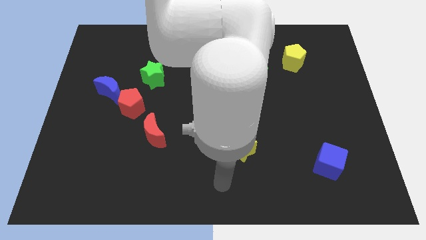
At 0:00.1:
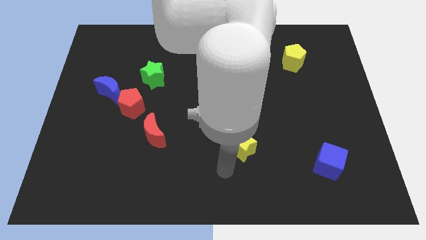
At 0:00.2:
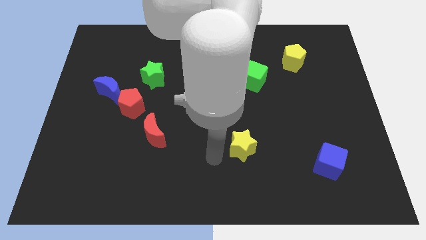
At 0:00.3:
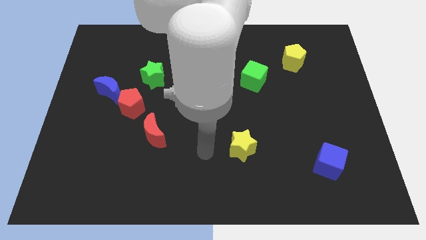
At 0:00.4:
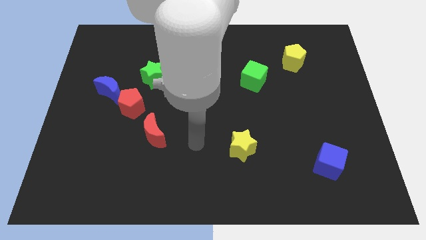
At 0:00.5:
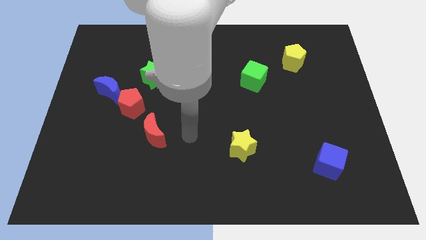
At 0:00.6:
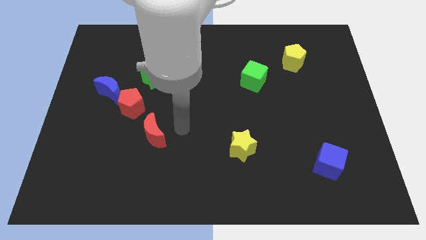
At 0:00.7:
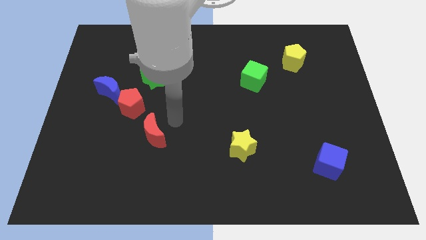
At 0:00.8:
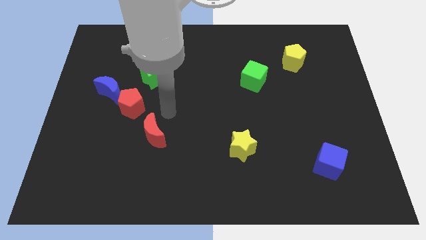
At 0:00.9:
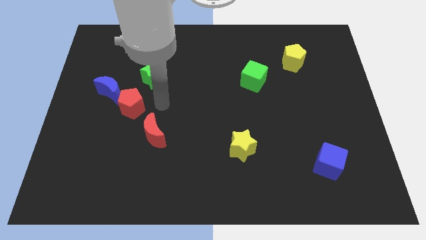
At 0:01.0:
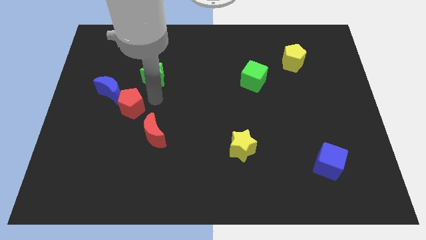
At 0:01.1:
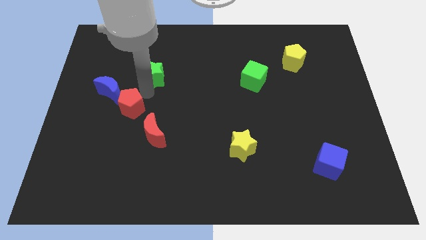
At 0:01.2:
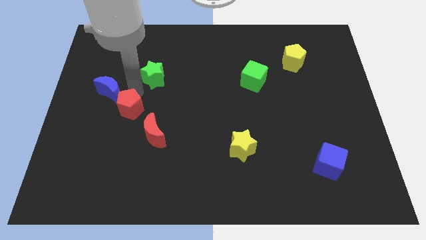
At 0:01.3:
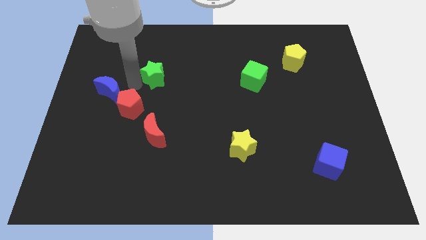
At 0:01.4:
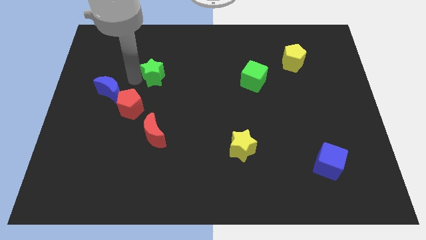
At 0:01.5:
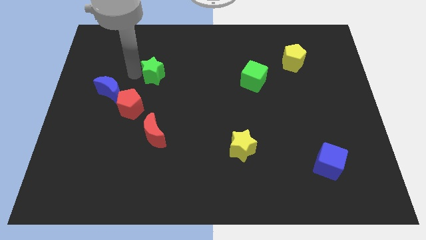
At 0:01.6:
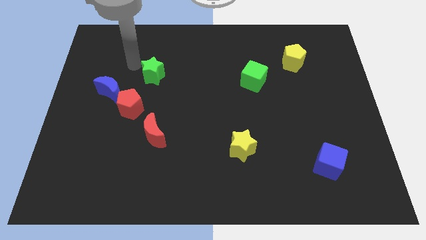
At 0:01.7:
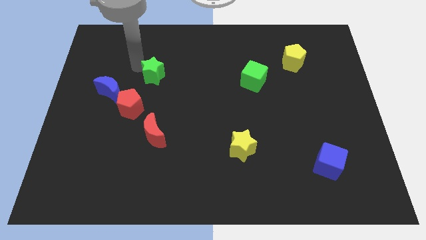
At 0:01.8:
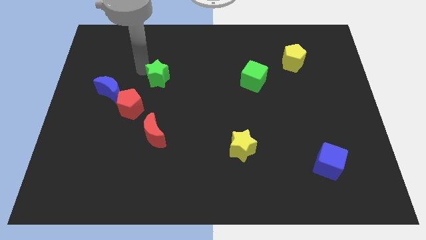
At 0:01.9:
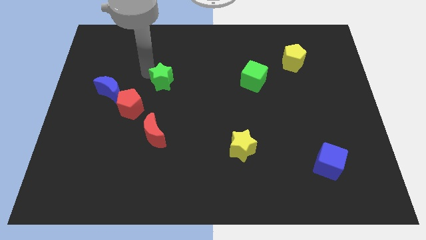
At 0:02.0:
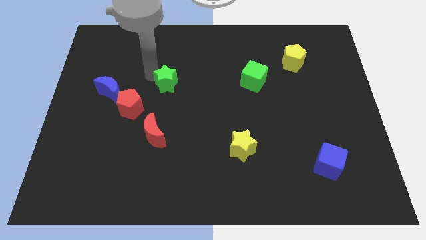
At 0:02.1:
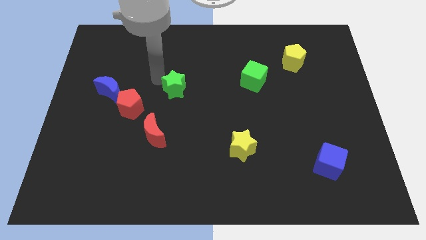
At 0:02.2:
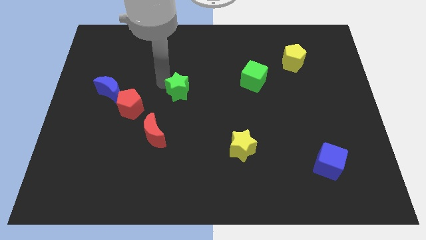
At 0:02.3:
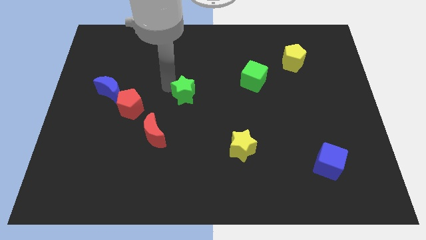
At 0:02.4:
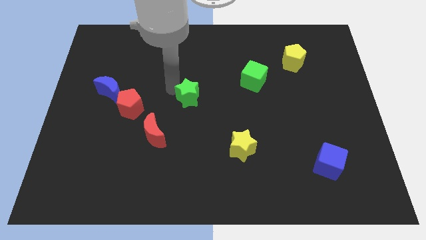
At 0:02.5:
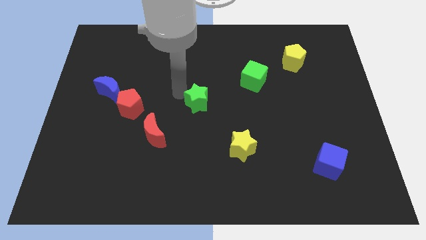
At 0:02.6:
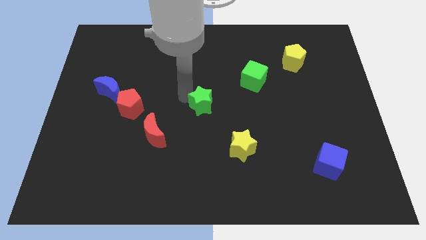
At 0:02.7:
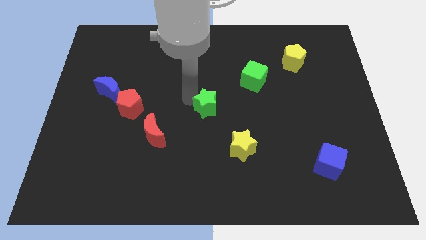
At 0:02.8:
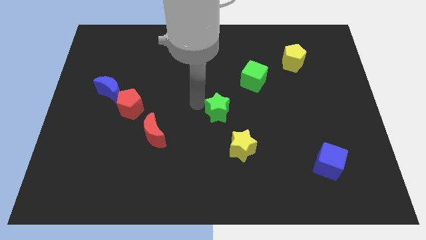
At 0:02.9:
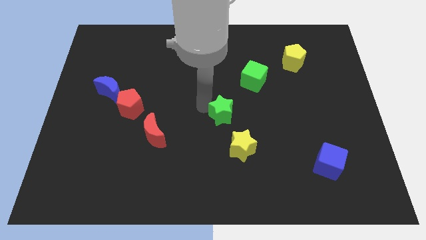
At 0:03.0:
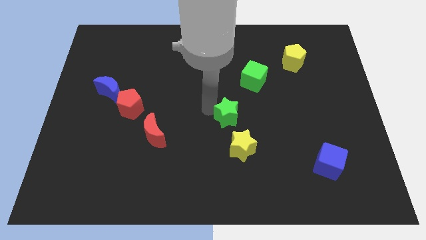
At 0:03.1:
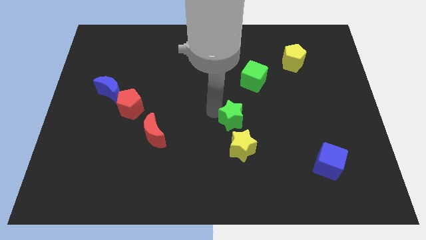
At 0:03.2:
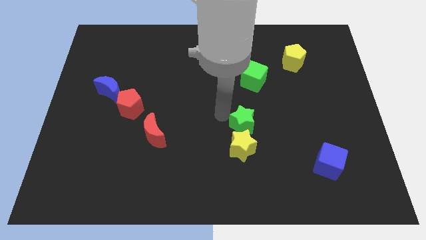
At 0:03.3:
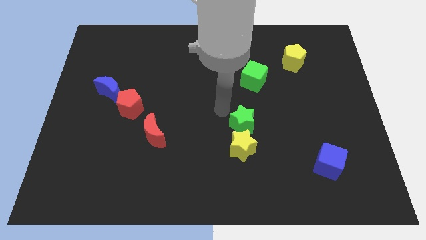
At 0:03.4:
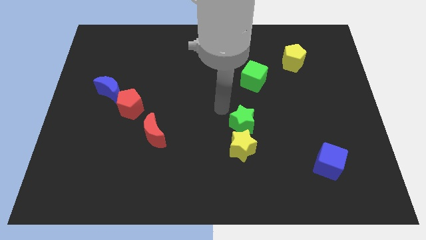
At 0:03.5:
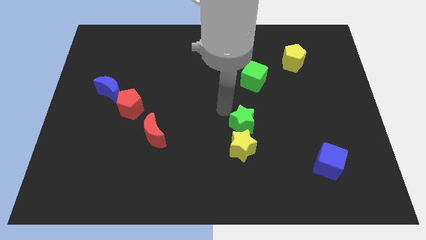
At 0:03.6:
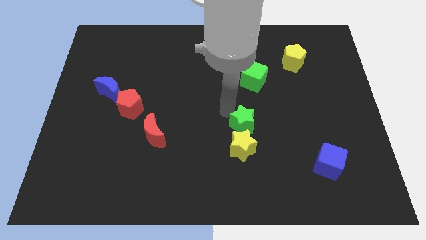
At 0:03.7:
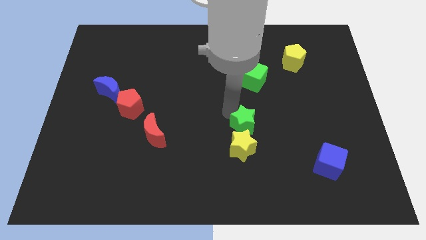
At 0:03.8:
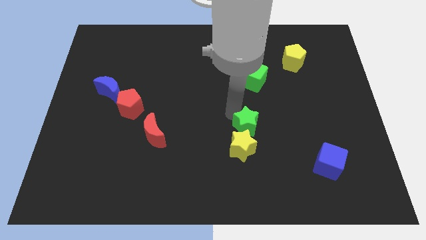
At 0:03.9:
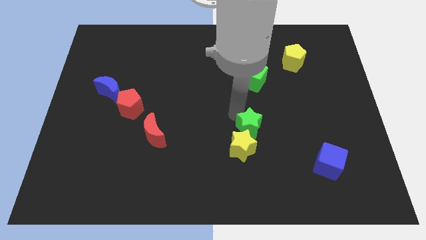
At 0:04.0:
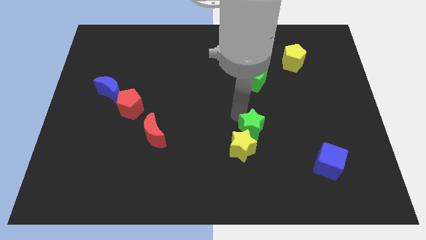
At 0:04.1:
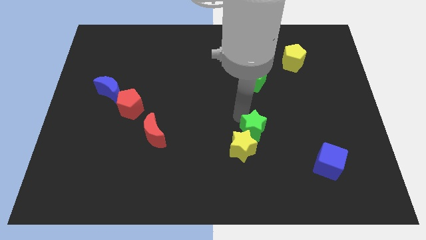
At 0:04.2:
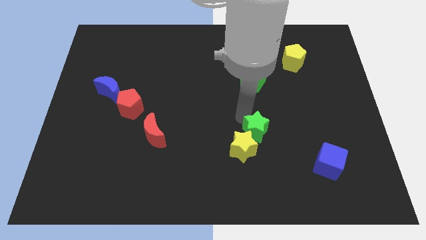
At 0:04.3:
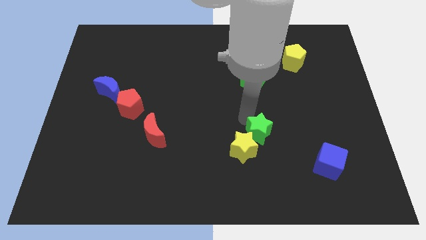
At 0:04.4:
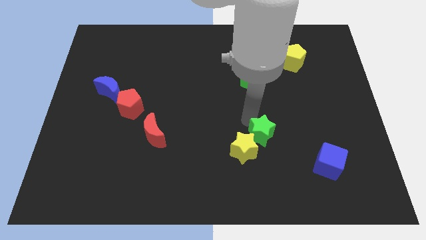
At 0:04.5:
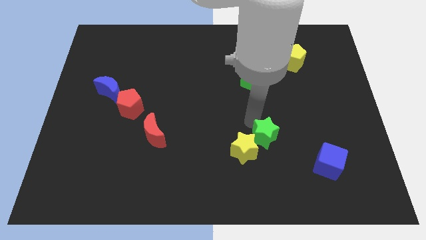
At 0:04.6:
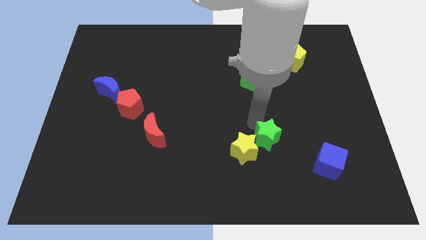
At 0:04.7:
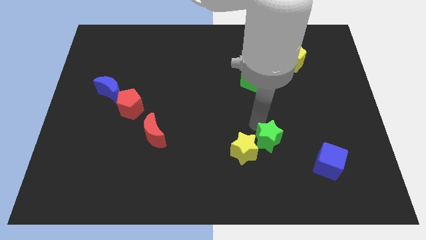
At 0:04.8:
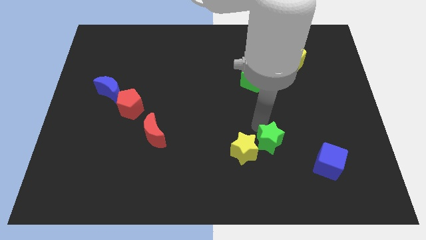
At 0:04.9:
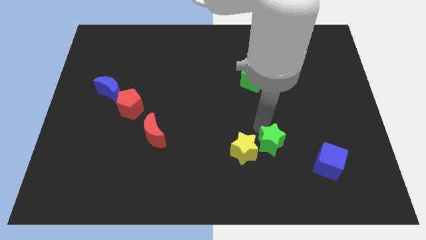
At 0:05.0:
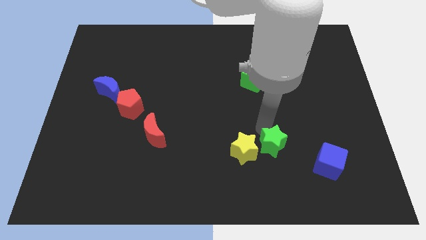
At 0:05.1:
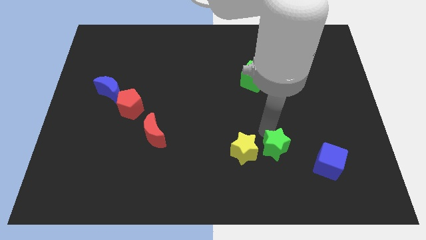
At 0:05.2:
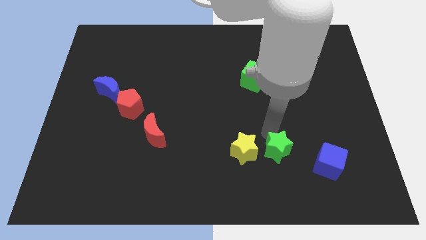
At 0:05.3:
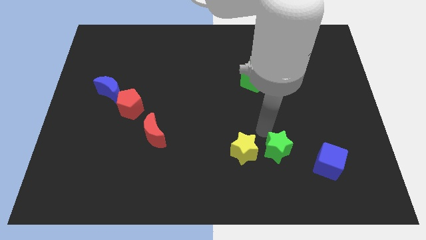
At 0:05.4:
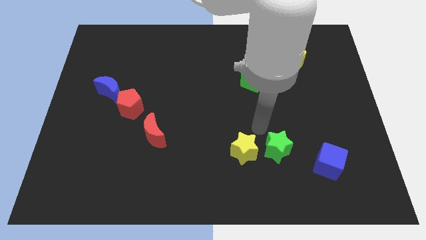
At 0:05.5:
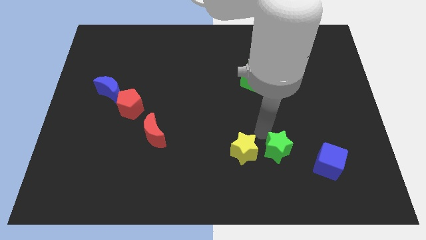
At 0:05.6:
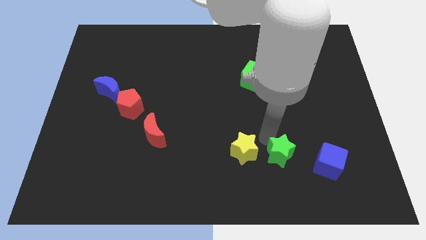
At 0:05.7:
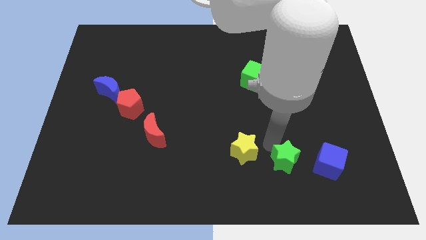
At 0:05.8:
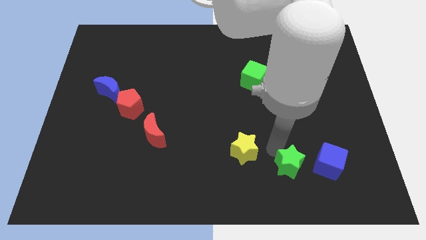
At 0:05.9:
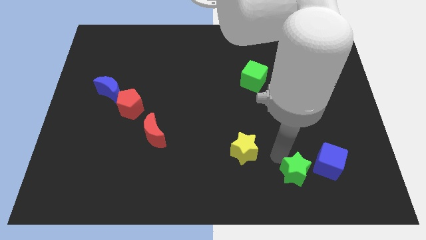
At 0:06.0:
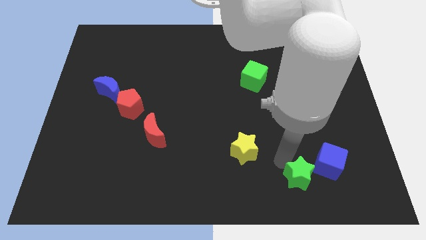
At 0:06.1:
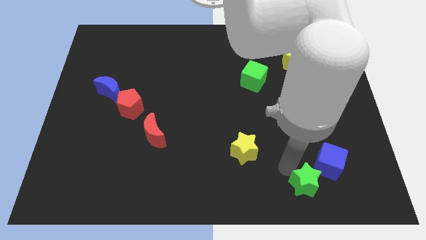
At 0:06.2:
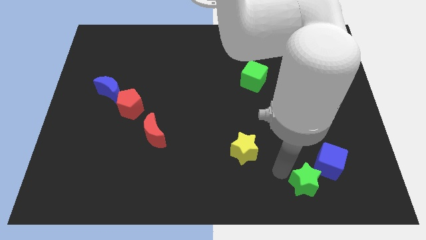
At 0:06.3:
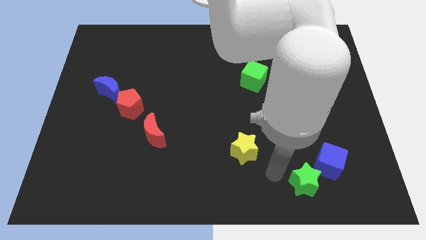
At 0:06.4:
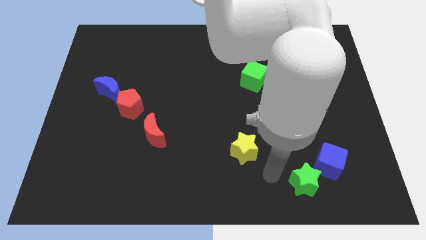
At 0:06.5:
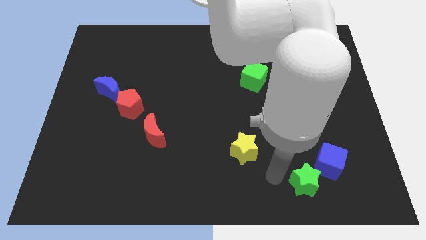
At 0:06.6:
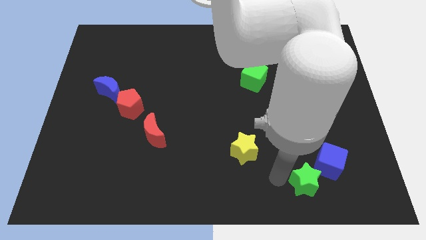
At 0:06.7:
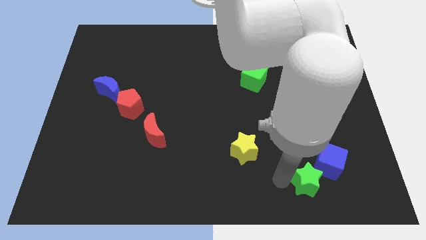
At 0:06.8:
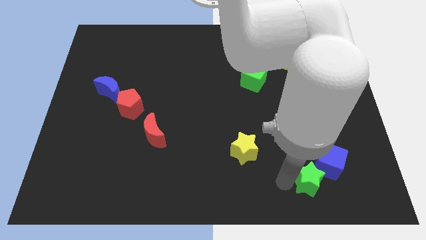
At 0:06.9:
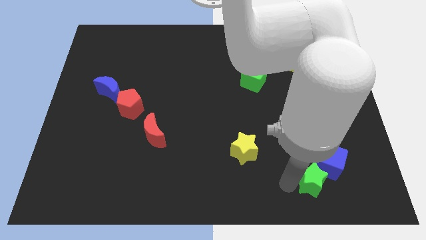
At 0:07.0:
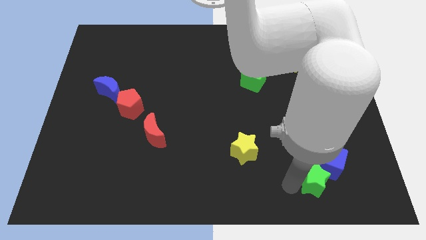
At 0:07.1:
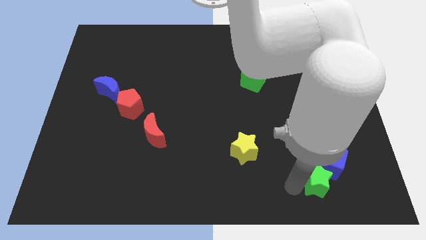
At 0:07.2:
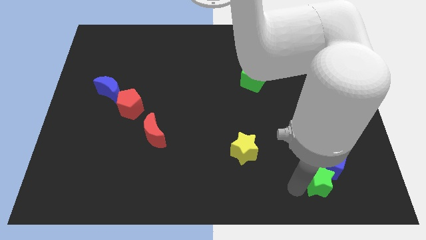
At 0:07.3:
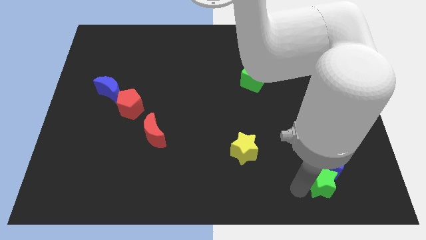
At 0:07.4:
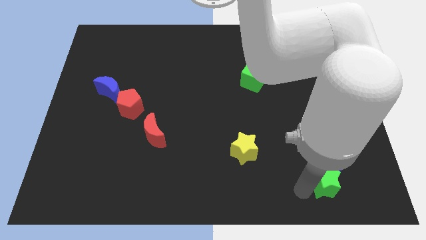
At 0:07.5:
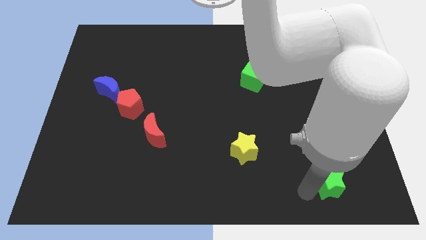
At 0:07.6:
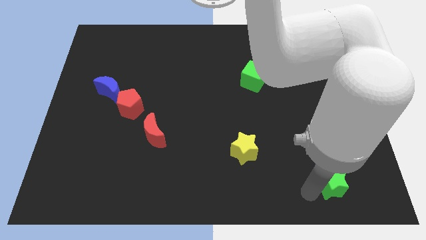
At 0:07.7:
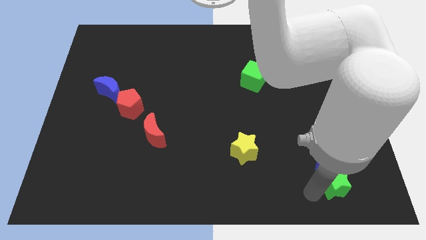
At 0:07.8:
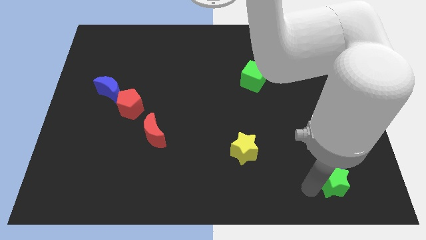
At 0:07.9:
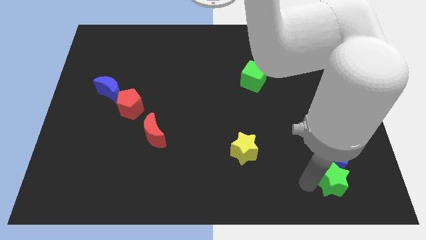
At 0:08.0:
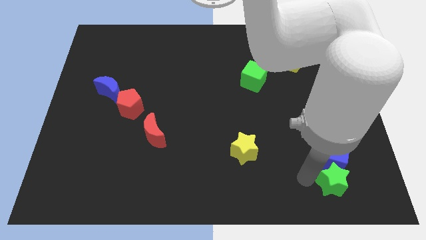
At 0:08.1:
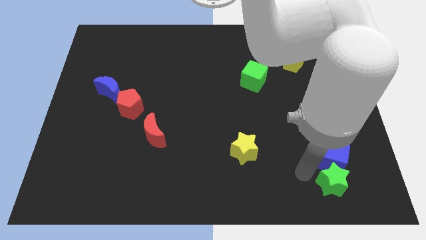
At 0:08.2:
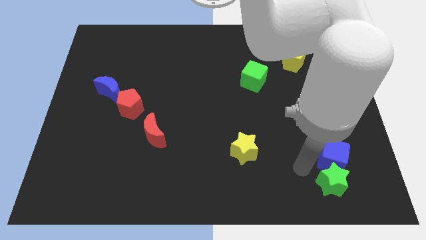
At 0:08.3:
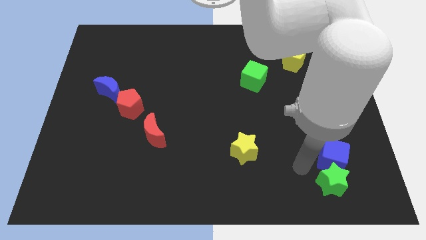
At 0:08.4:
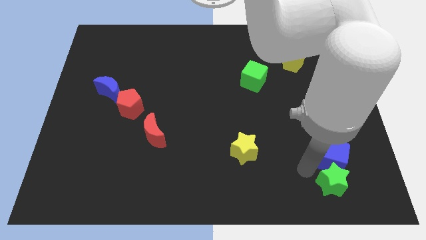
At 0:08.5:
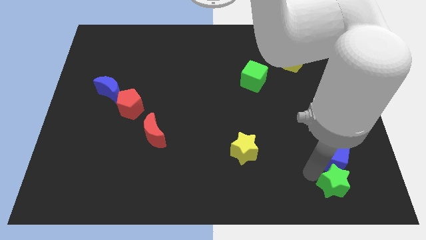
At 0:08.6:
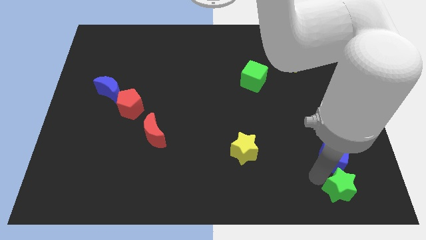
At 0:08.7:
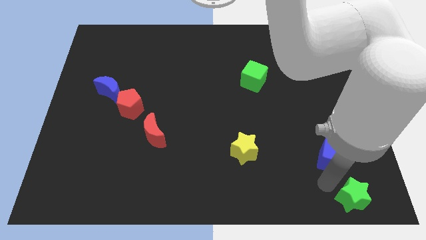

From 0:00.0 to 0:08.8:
push the green star to the bottom right
